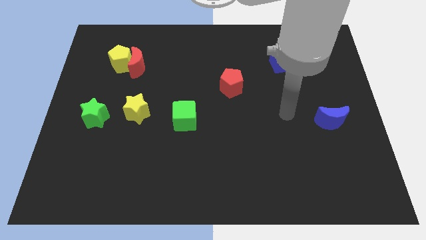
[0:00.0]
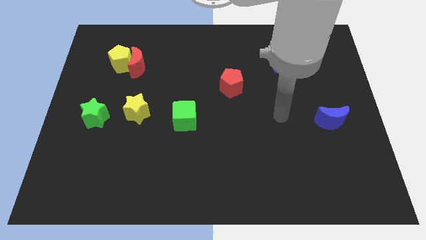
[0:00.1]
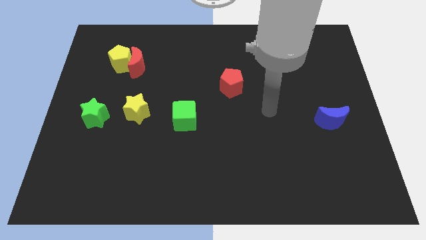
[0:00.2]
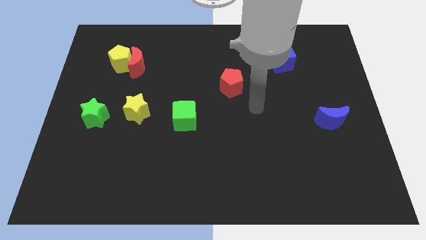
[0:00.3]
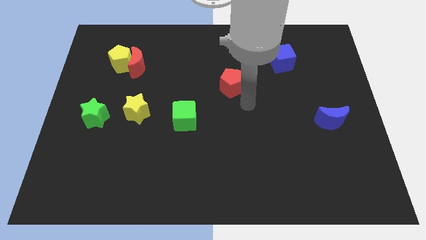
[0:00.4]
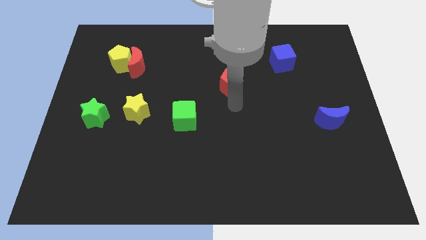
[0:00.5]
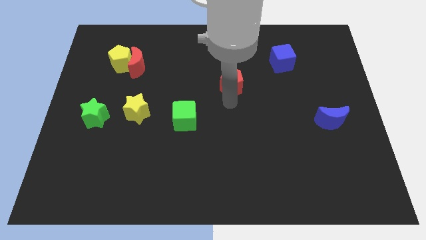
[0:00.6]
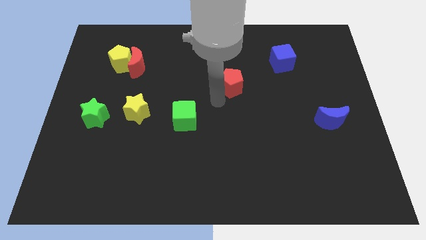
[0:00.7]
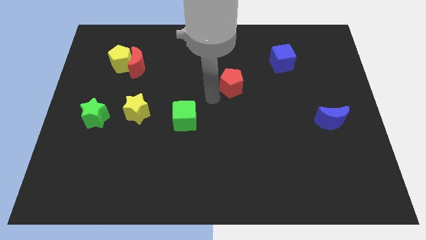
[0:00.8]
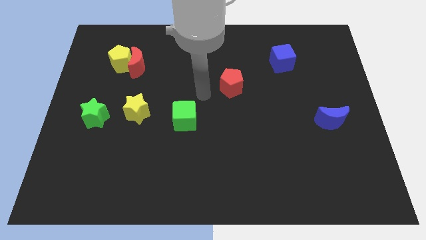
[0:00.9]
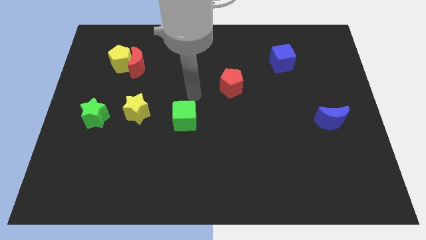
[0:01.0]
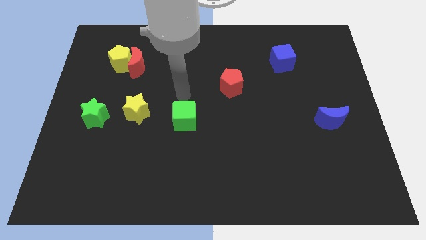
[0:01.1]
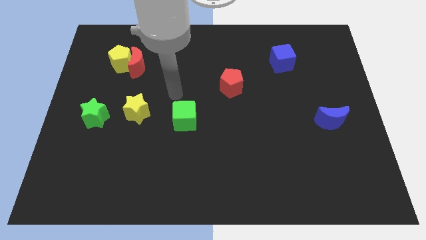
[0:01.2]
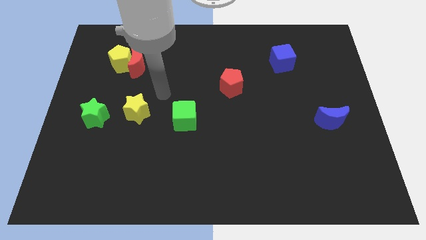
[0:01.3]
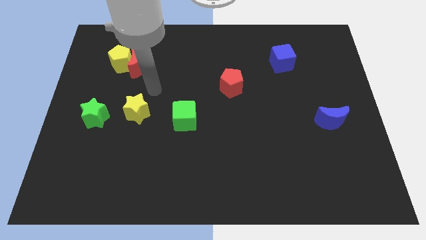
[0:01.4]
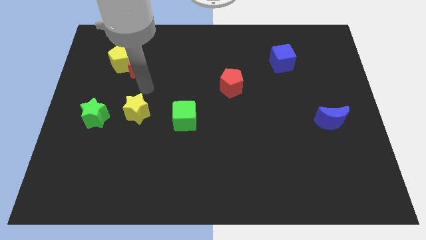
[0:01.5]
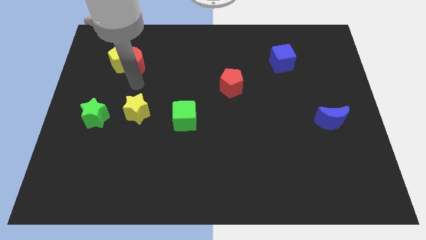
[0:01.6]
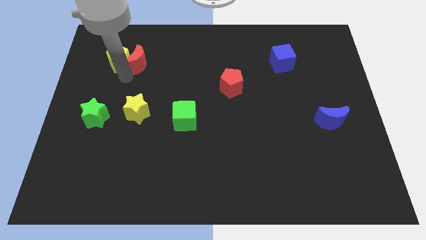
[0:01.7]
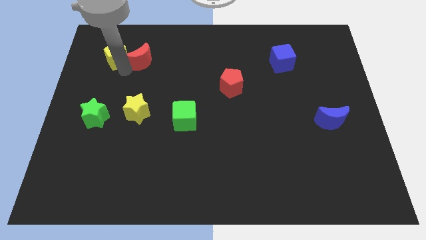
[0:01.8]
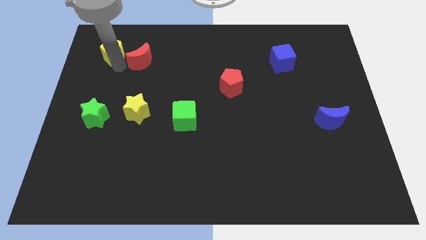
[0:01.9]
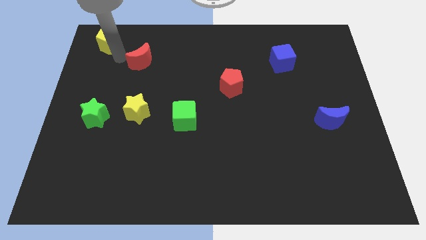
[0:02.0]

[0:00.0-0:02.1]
separate the red moon from the yellow pentagon

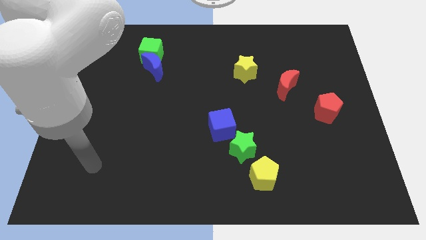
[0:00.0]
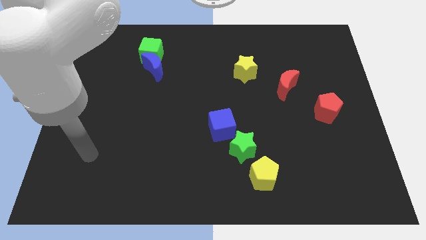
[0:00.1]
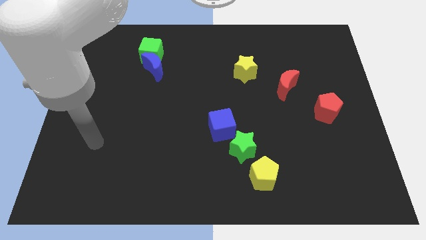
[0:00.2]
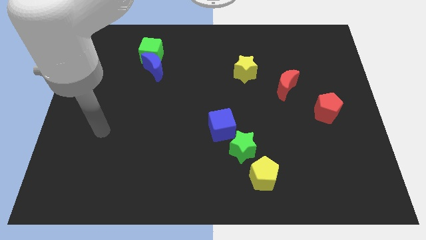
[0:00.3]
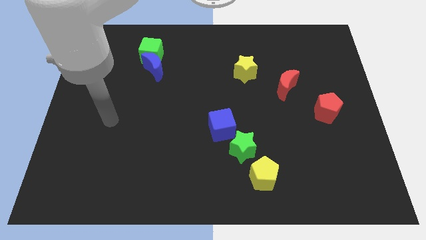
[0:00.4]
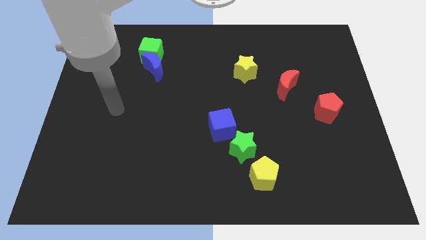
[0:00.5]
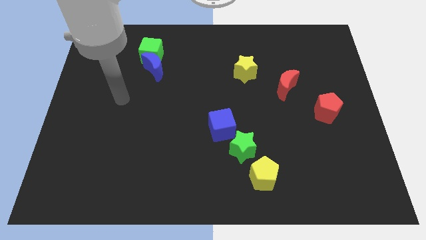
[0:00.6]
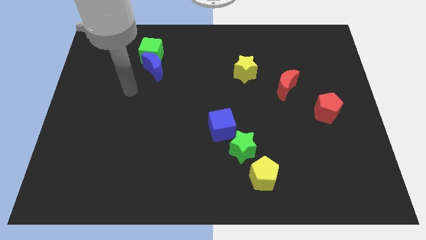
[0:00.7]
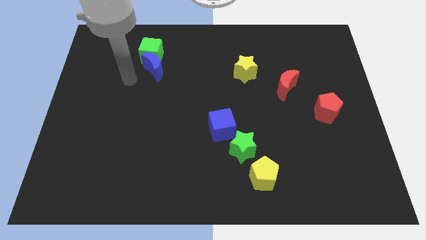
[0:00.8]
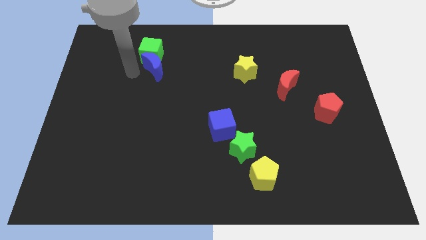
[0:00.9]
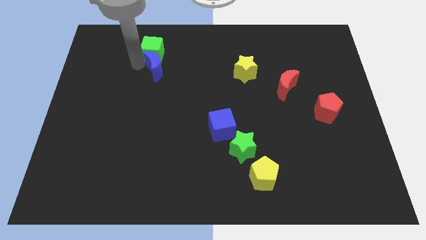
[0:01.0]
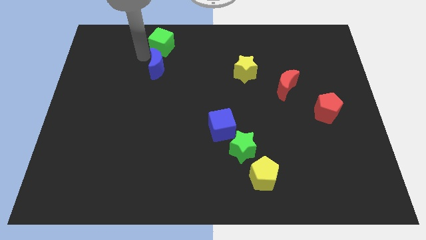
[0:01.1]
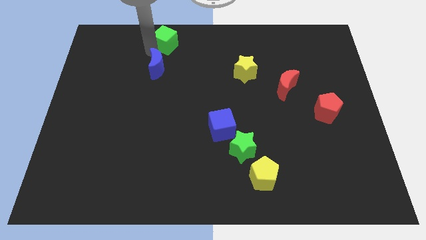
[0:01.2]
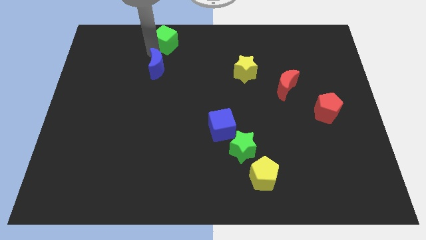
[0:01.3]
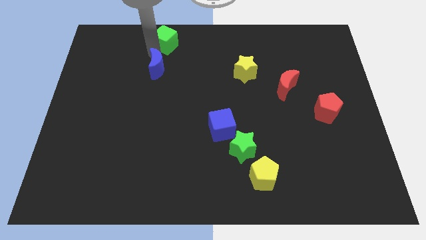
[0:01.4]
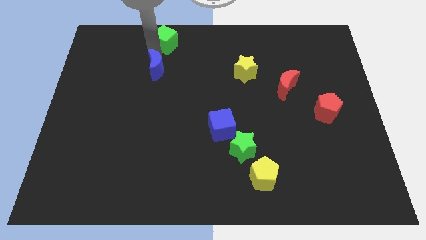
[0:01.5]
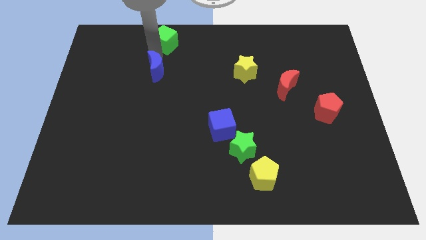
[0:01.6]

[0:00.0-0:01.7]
separate the blue moon from the green cube

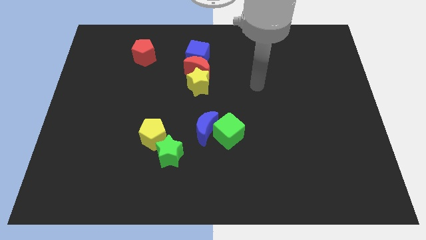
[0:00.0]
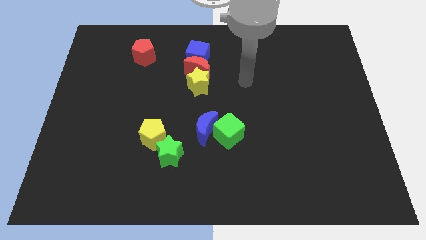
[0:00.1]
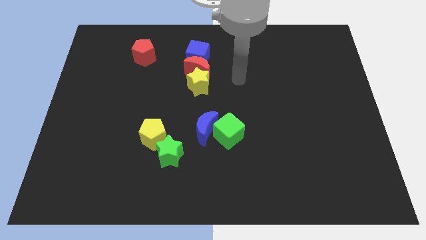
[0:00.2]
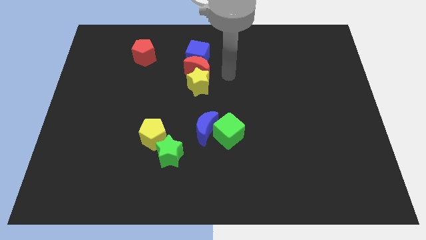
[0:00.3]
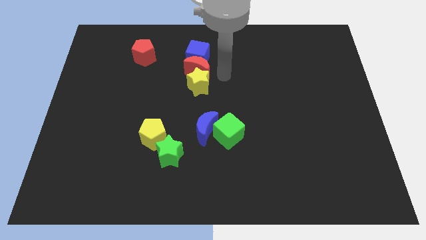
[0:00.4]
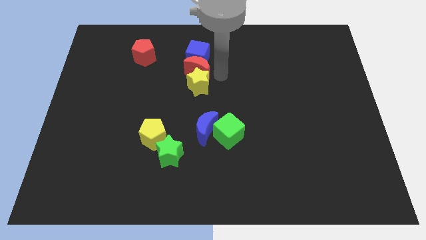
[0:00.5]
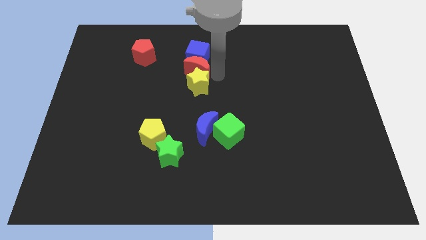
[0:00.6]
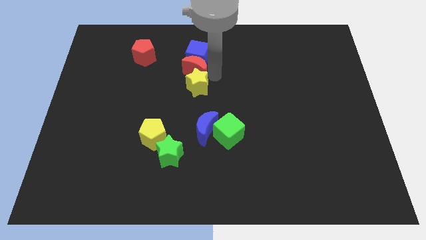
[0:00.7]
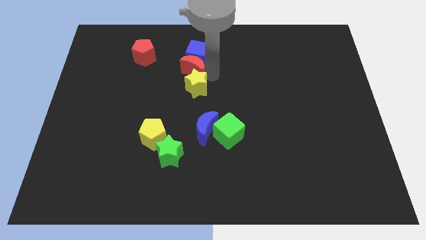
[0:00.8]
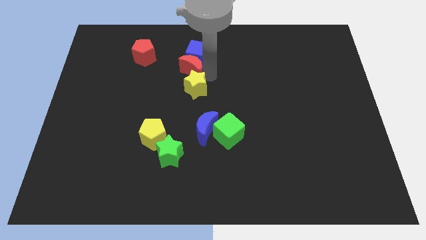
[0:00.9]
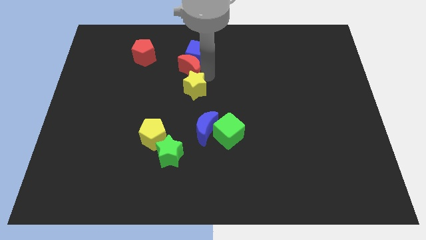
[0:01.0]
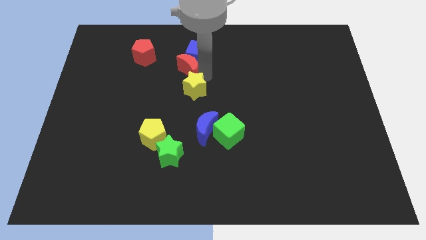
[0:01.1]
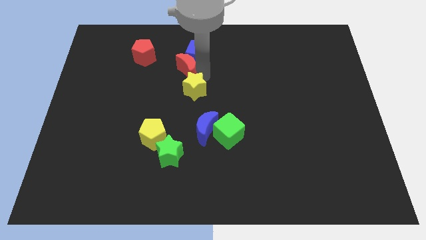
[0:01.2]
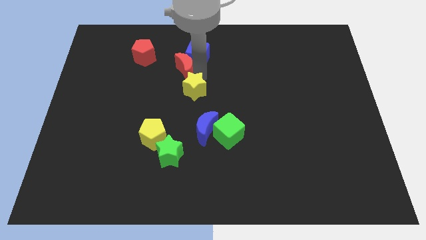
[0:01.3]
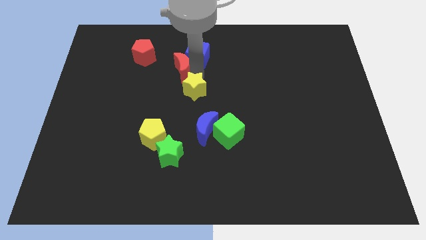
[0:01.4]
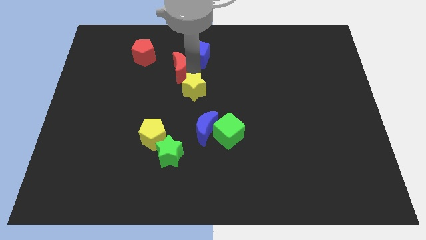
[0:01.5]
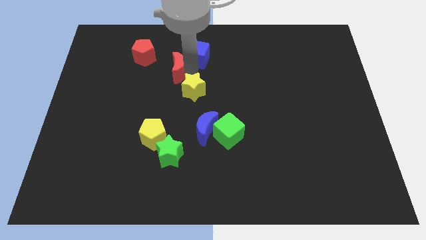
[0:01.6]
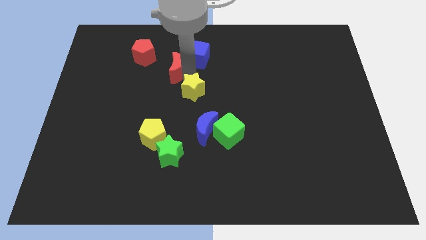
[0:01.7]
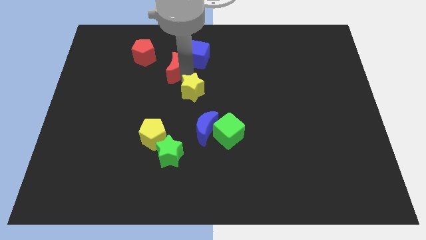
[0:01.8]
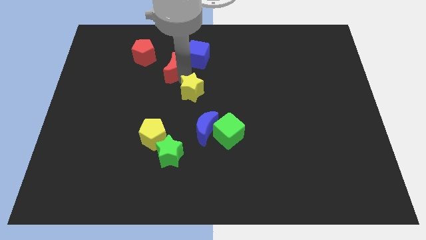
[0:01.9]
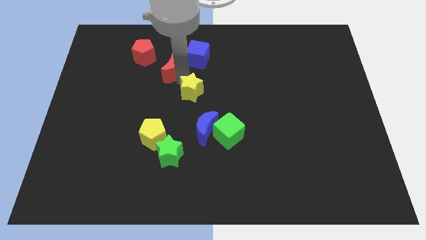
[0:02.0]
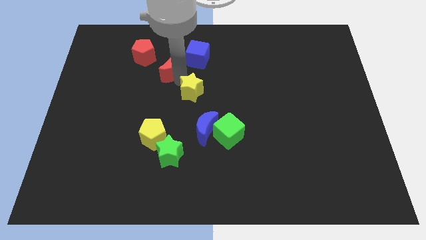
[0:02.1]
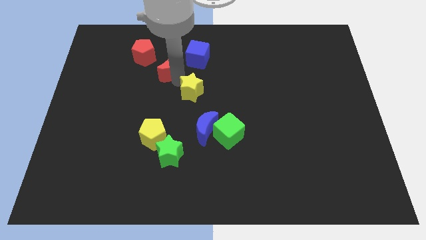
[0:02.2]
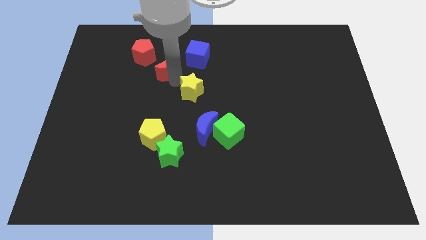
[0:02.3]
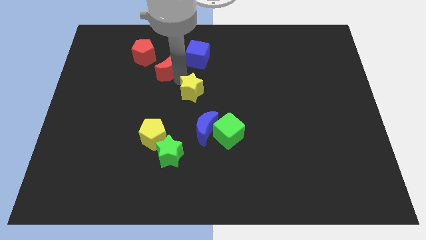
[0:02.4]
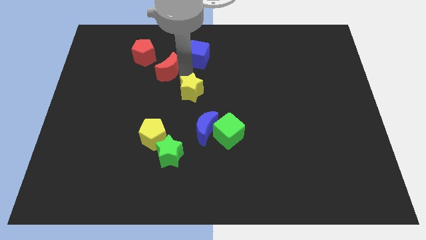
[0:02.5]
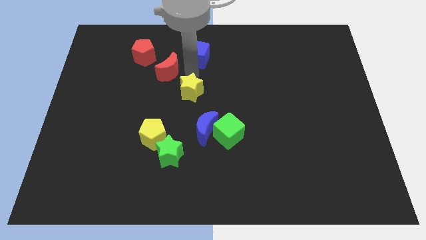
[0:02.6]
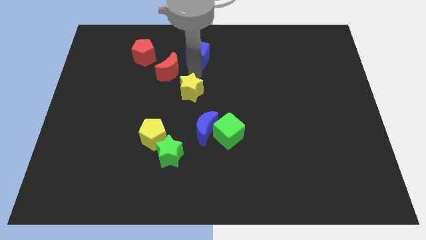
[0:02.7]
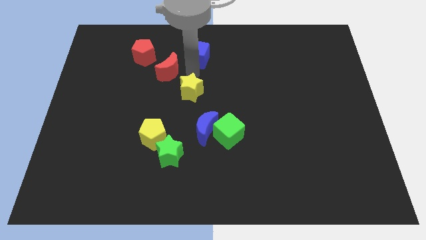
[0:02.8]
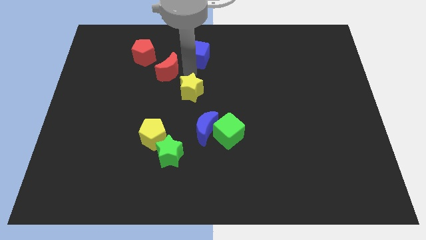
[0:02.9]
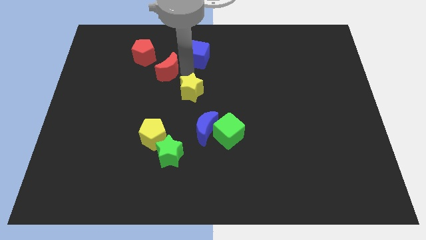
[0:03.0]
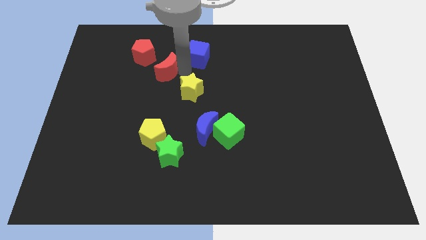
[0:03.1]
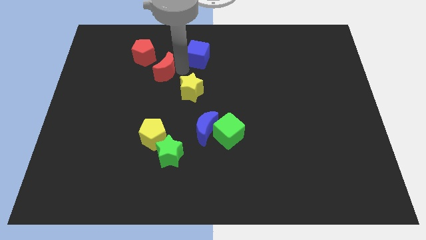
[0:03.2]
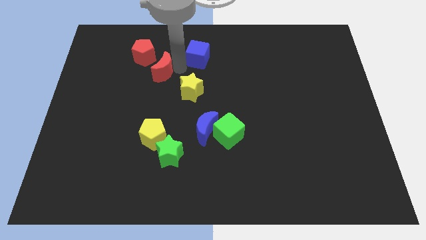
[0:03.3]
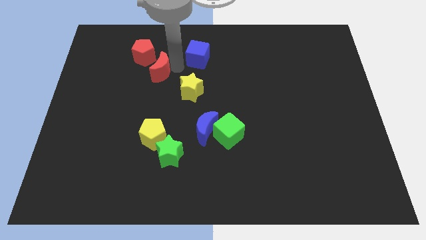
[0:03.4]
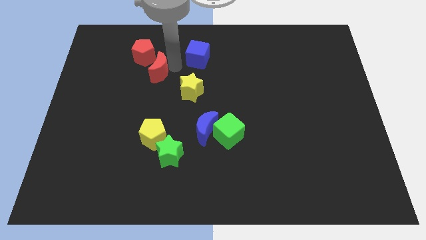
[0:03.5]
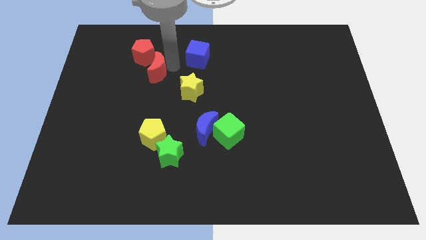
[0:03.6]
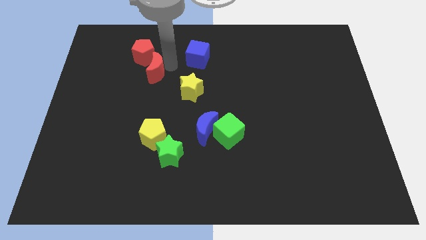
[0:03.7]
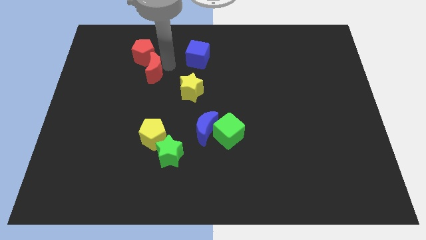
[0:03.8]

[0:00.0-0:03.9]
separate the red moon from the blue cube and yellow star

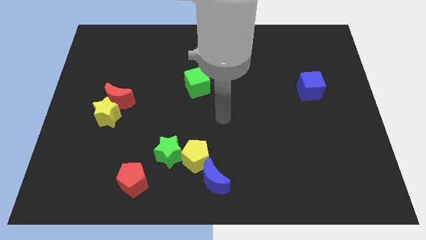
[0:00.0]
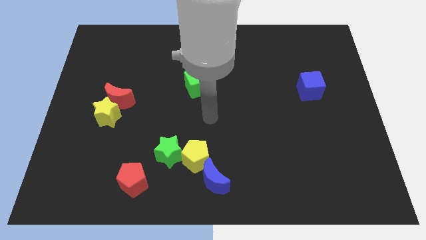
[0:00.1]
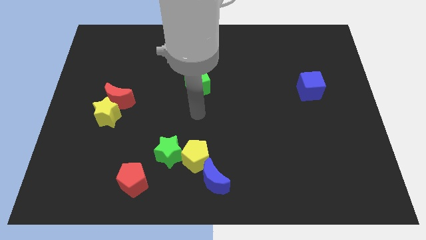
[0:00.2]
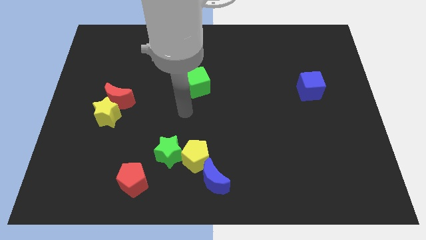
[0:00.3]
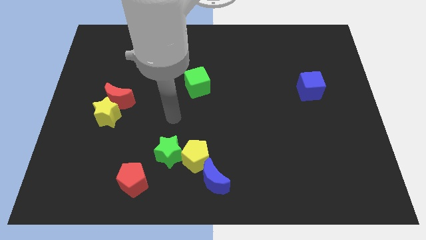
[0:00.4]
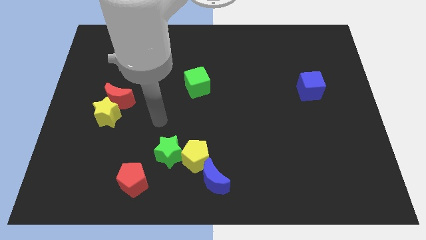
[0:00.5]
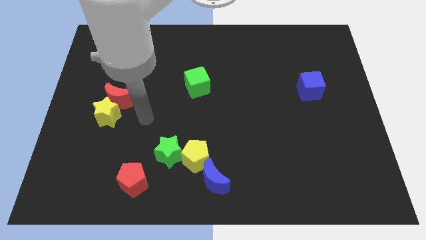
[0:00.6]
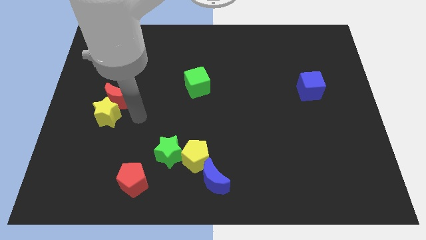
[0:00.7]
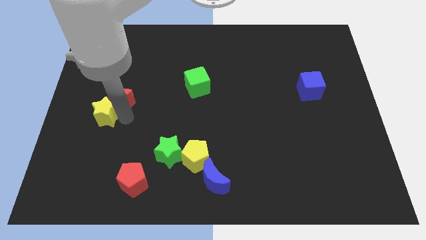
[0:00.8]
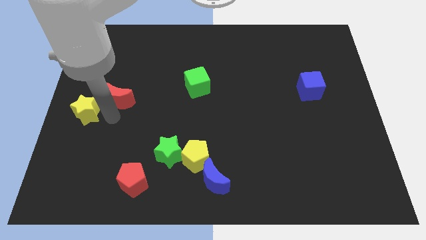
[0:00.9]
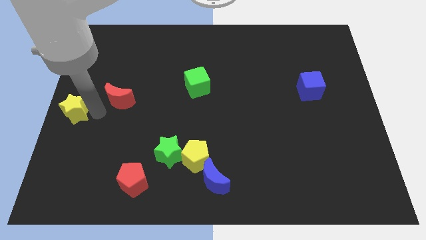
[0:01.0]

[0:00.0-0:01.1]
move the red moon away from the yellow star

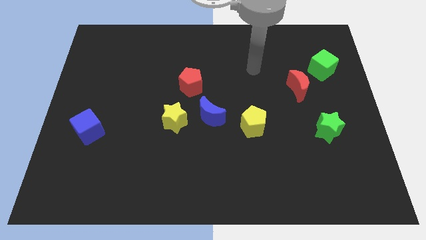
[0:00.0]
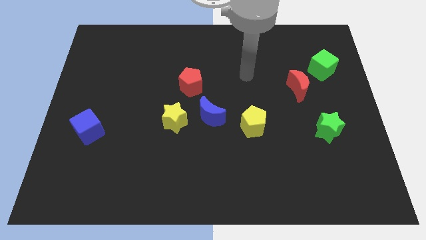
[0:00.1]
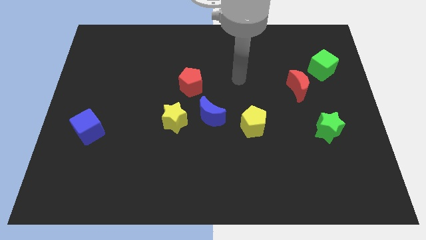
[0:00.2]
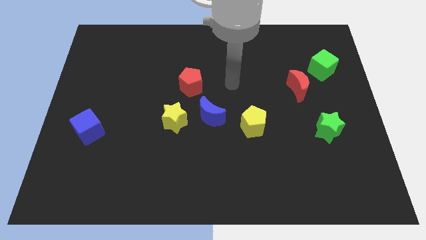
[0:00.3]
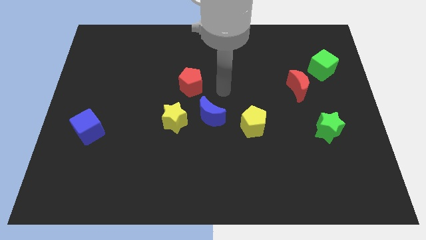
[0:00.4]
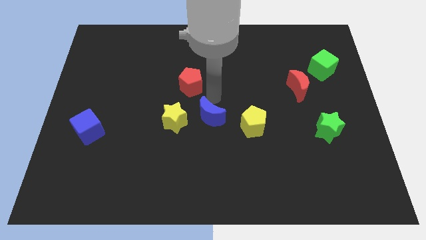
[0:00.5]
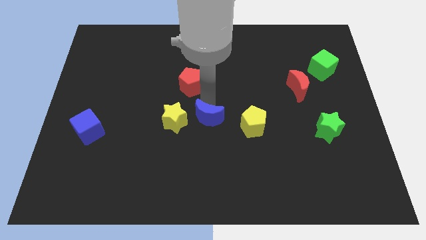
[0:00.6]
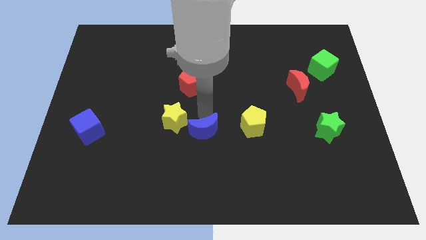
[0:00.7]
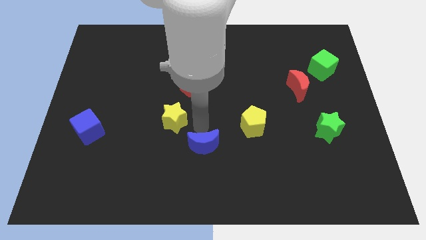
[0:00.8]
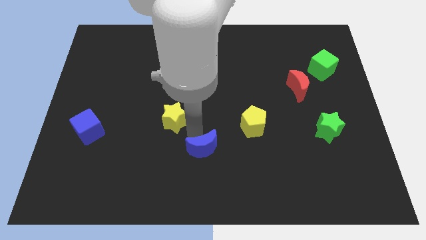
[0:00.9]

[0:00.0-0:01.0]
pull the yellow star apart from the blue moon
